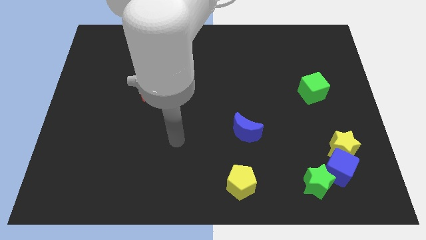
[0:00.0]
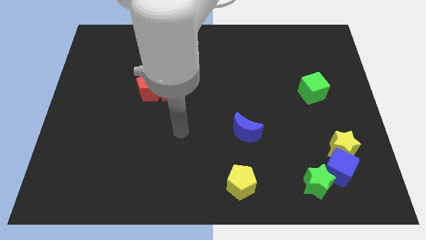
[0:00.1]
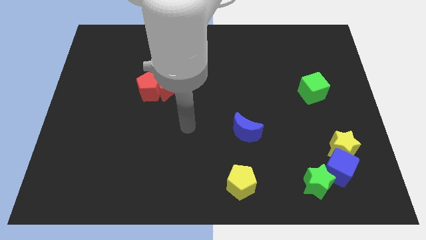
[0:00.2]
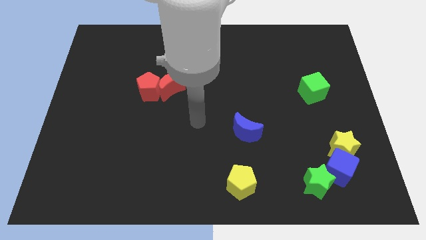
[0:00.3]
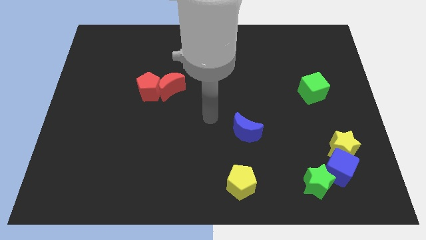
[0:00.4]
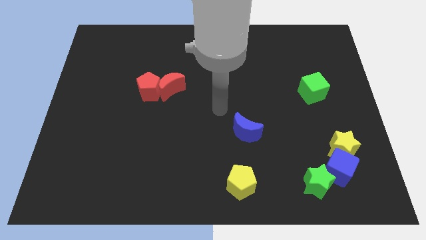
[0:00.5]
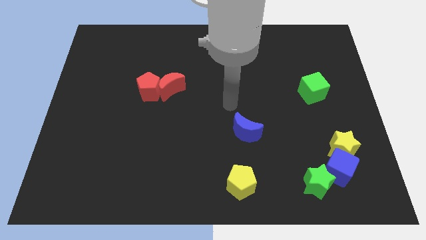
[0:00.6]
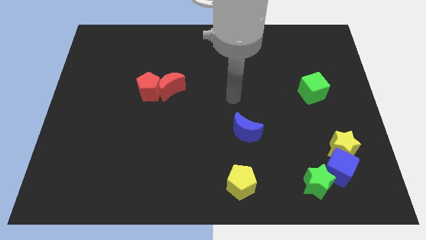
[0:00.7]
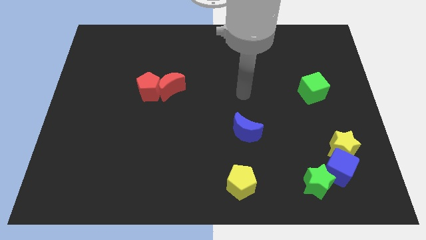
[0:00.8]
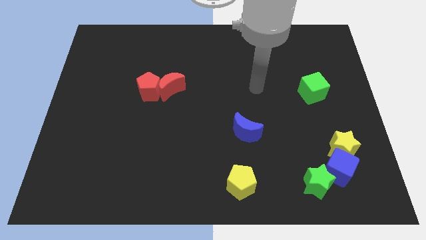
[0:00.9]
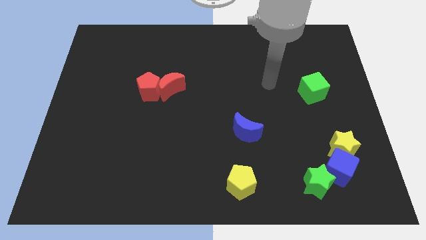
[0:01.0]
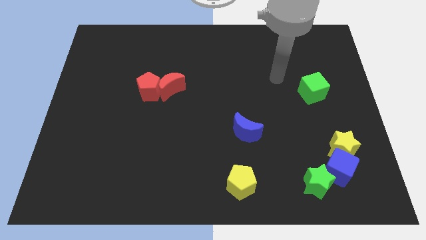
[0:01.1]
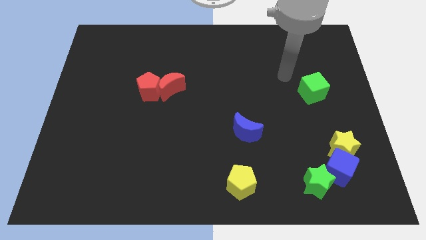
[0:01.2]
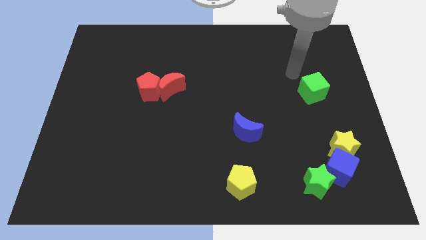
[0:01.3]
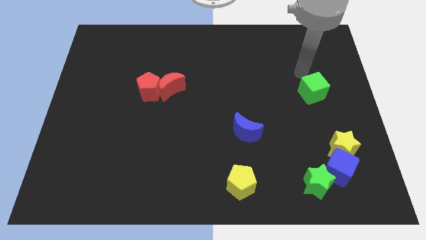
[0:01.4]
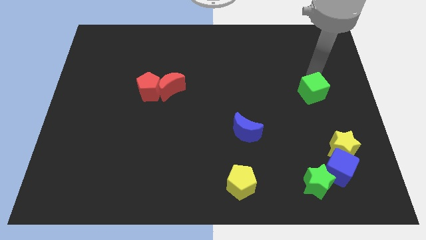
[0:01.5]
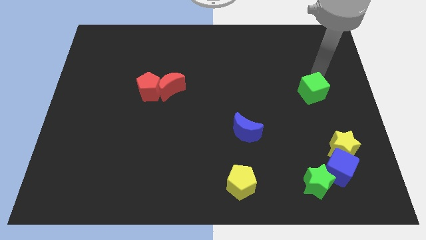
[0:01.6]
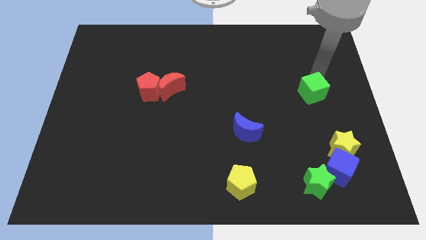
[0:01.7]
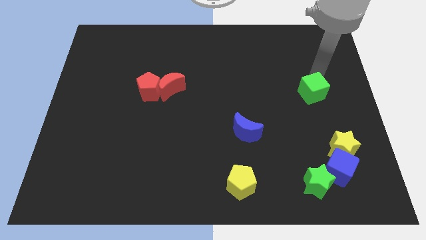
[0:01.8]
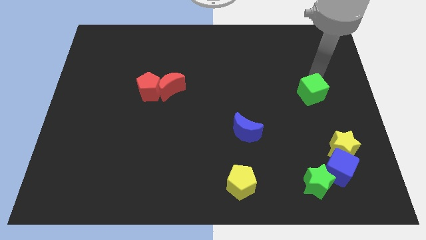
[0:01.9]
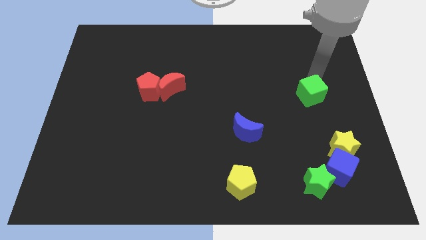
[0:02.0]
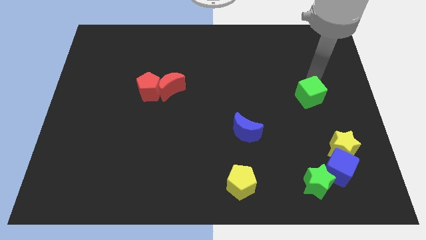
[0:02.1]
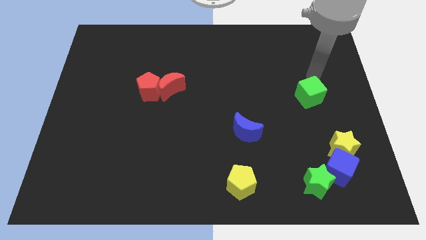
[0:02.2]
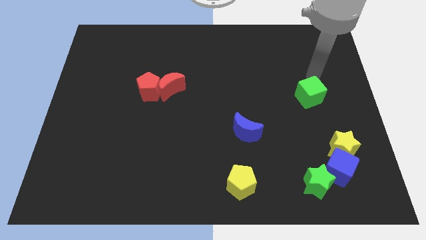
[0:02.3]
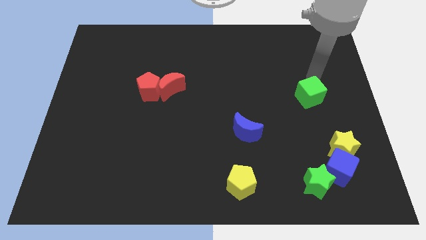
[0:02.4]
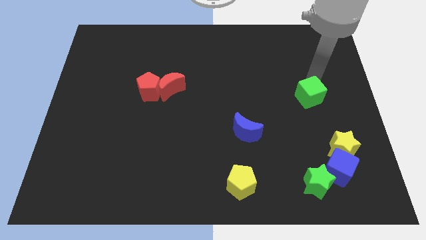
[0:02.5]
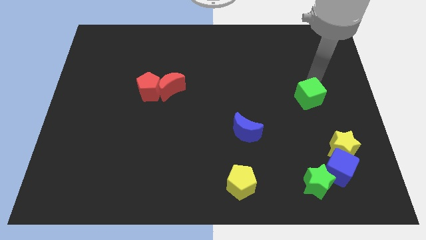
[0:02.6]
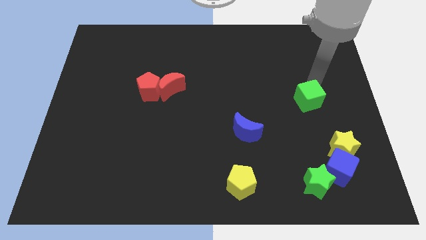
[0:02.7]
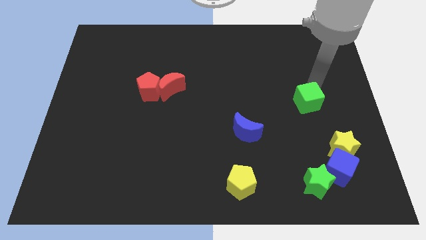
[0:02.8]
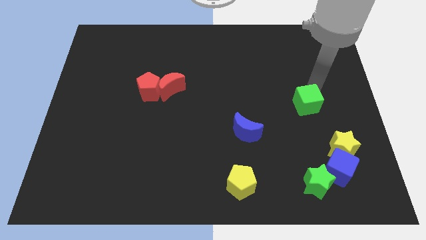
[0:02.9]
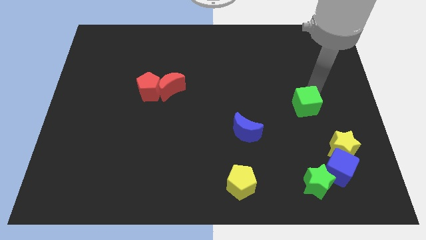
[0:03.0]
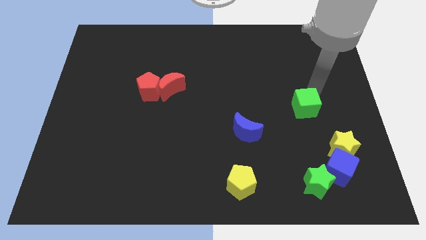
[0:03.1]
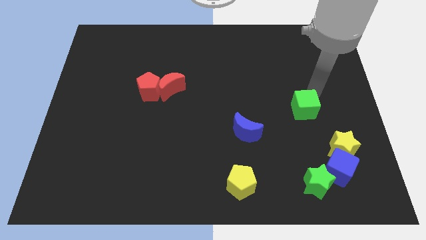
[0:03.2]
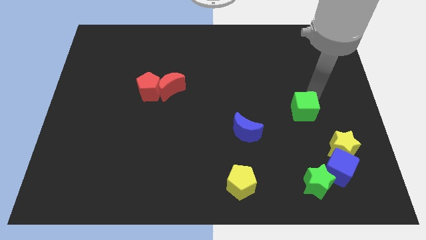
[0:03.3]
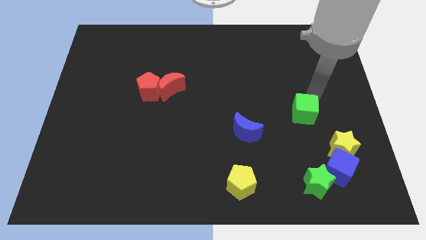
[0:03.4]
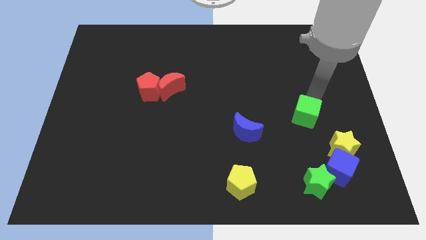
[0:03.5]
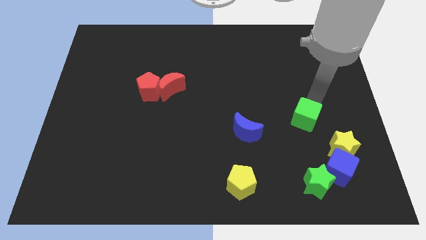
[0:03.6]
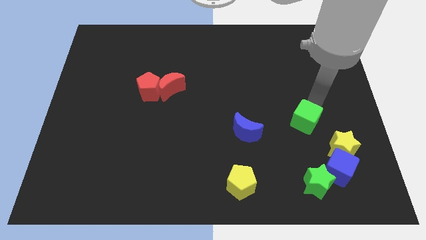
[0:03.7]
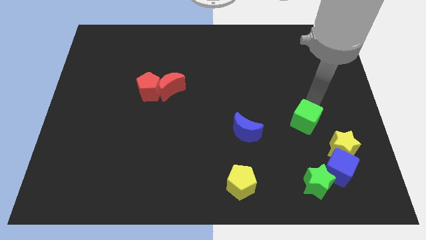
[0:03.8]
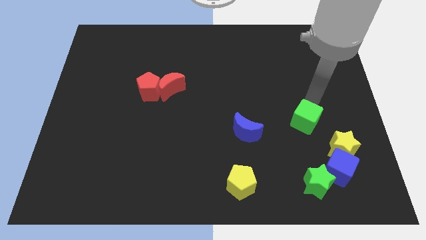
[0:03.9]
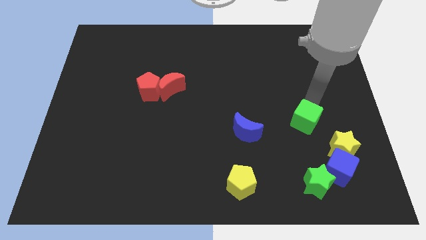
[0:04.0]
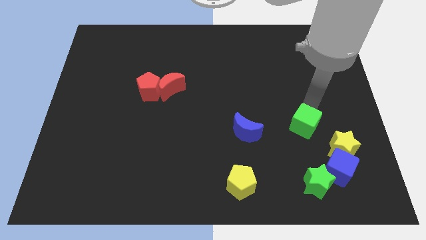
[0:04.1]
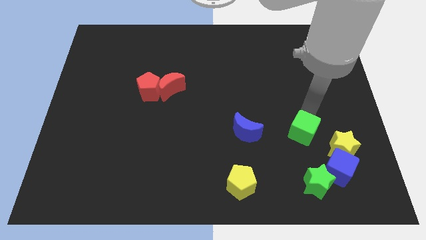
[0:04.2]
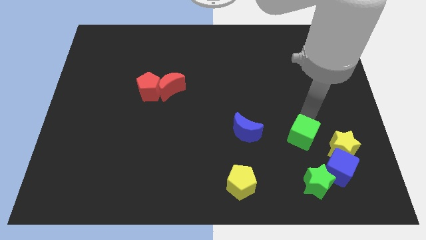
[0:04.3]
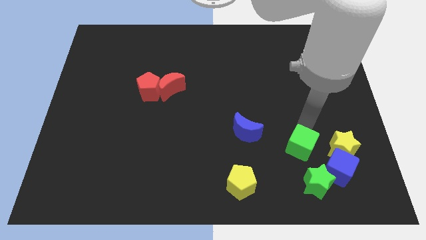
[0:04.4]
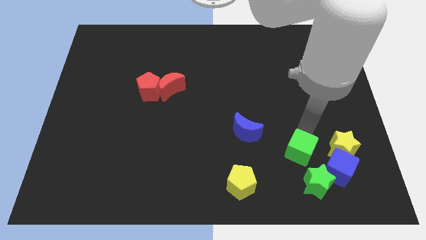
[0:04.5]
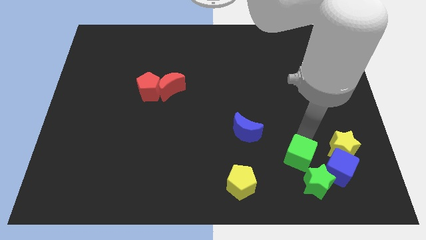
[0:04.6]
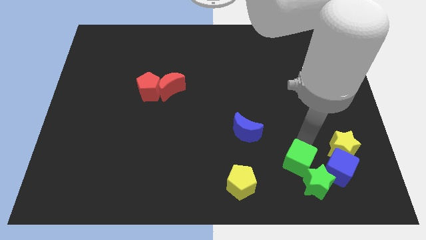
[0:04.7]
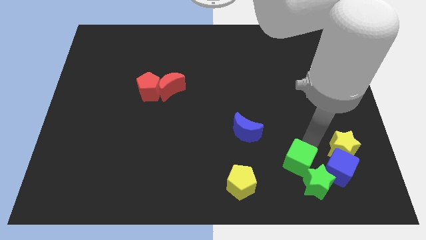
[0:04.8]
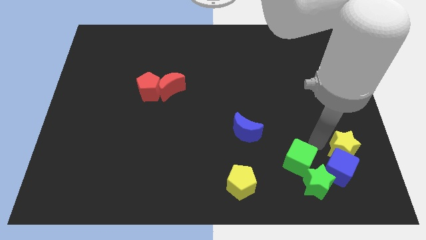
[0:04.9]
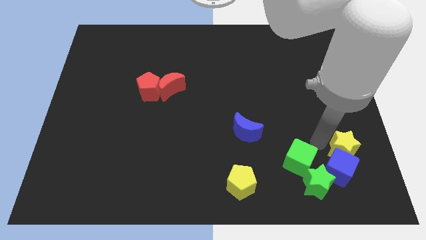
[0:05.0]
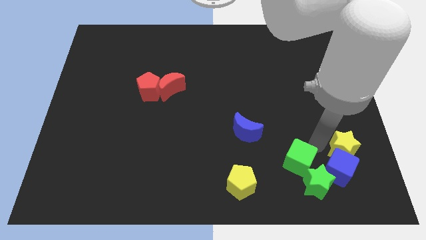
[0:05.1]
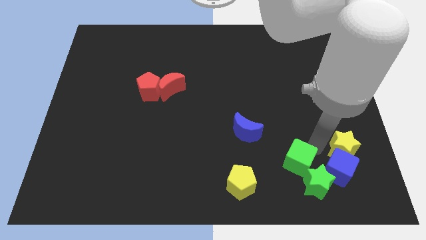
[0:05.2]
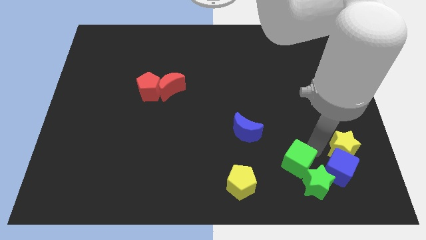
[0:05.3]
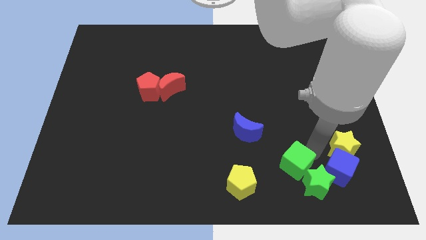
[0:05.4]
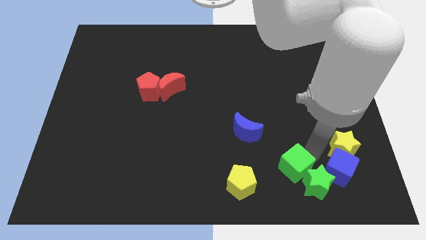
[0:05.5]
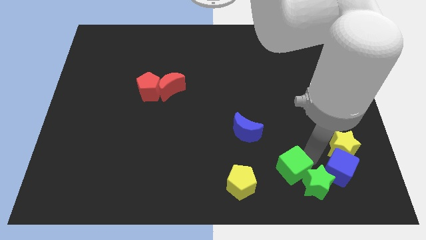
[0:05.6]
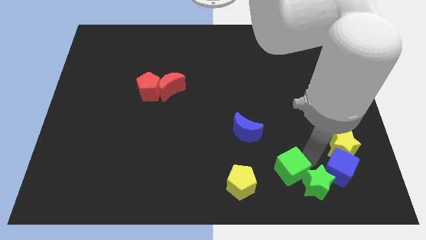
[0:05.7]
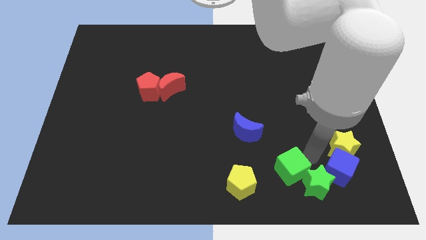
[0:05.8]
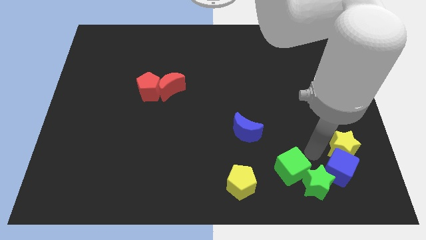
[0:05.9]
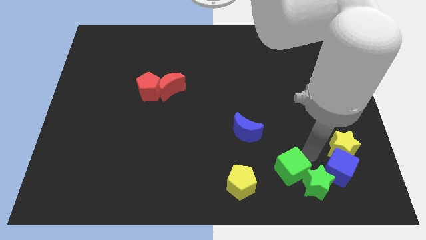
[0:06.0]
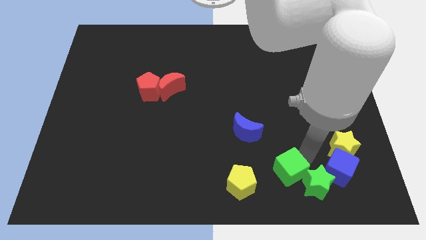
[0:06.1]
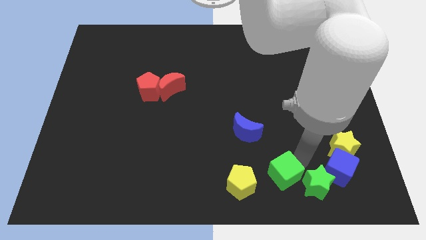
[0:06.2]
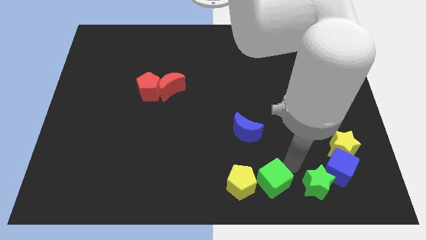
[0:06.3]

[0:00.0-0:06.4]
push the green cube to the bottom side
